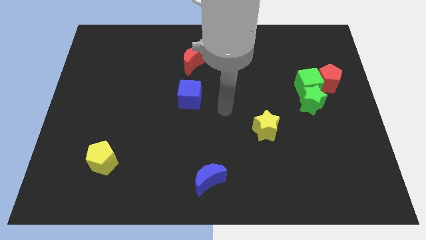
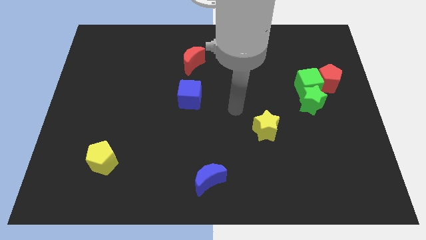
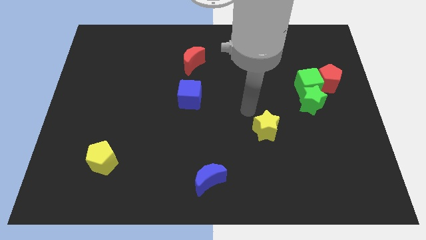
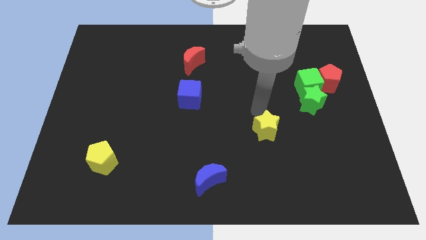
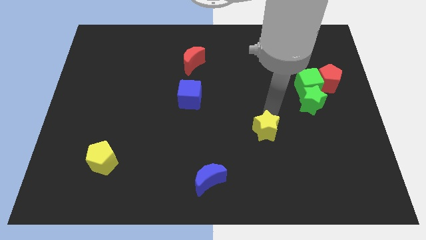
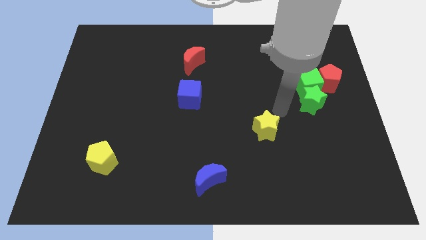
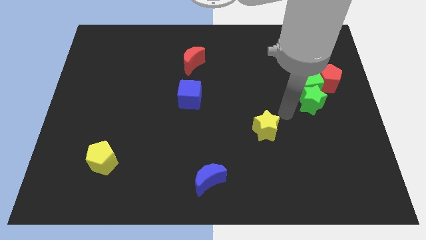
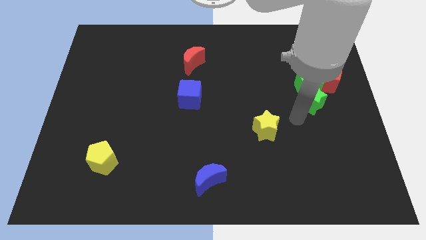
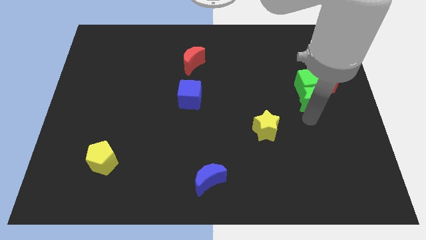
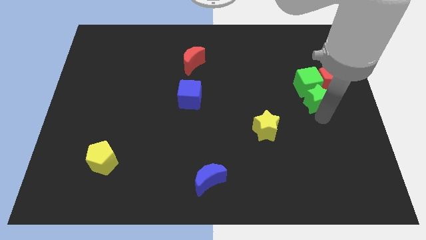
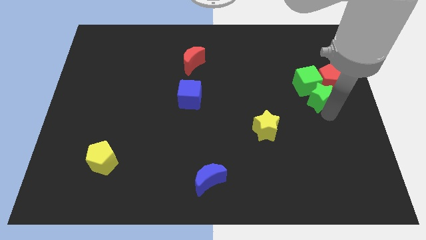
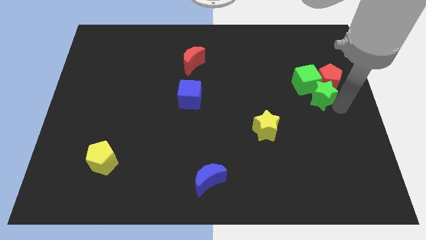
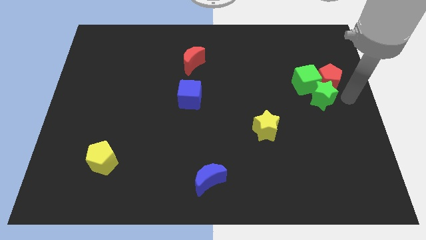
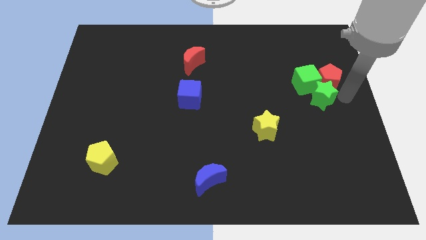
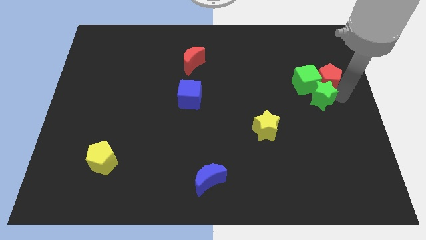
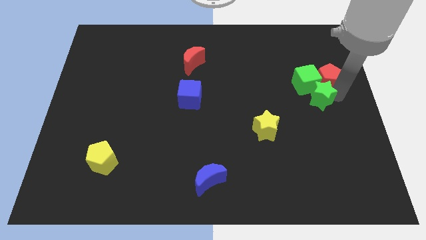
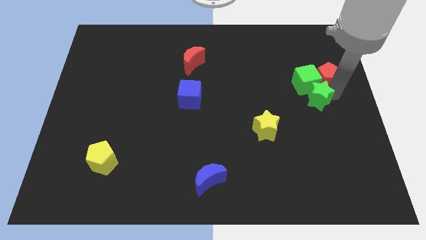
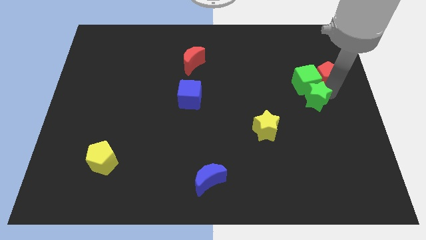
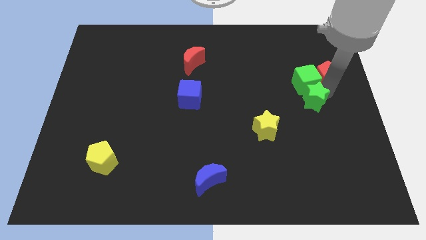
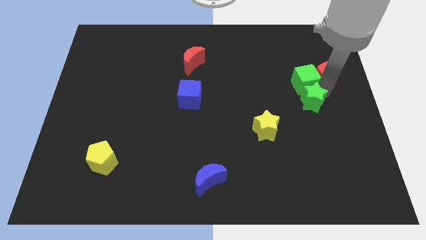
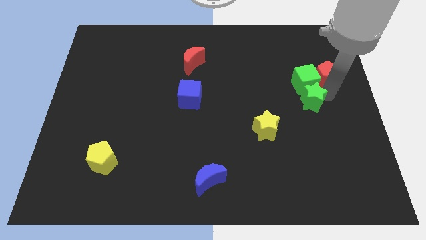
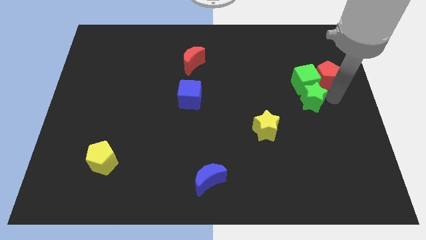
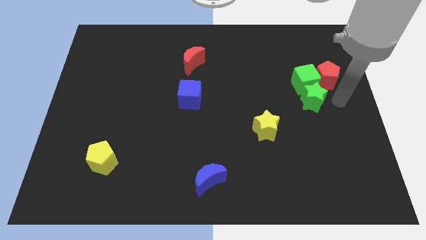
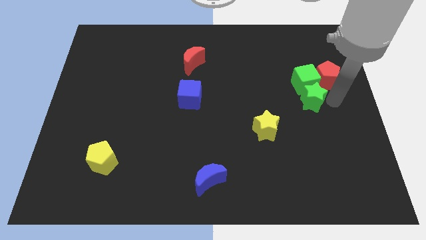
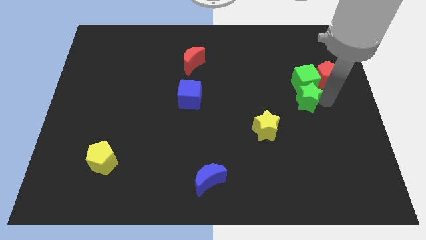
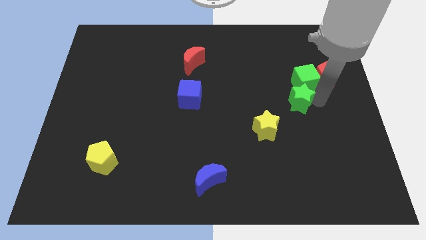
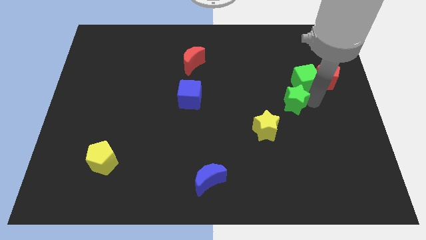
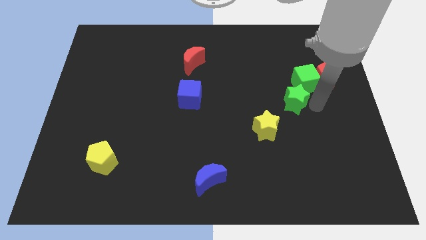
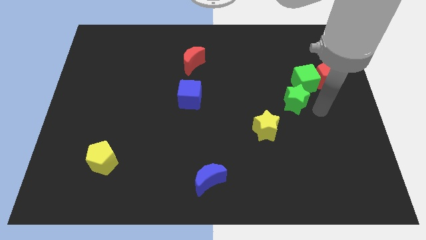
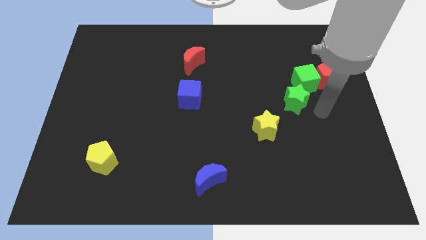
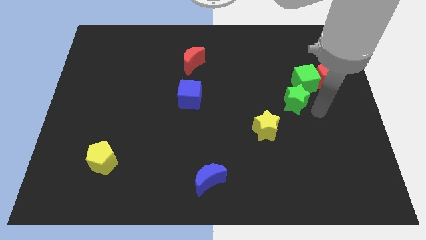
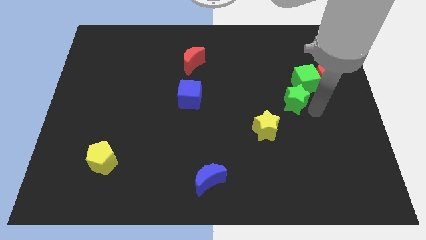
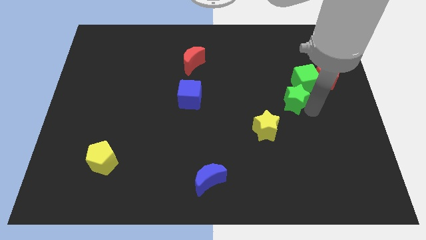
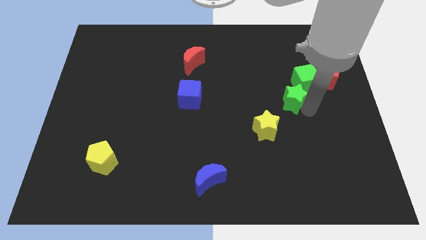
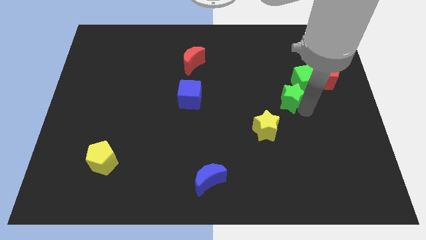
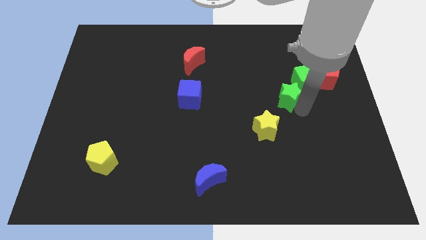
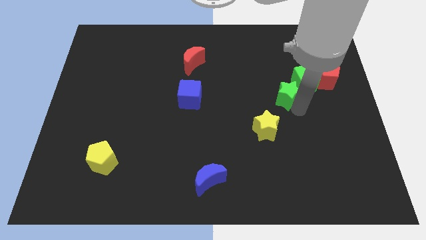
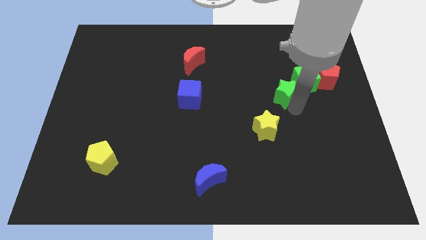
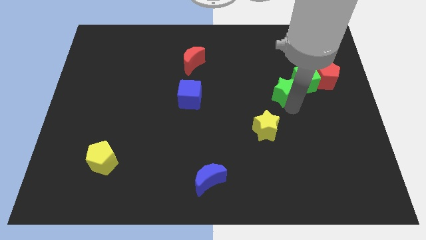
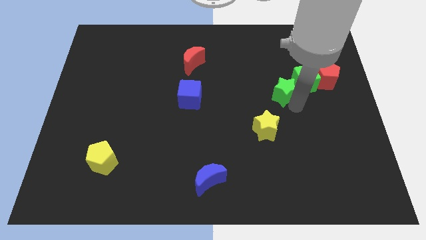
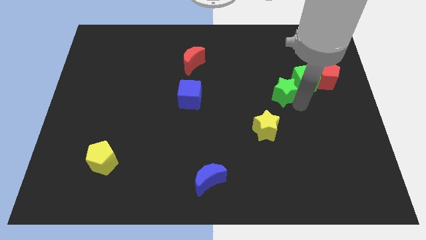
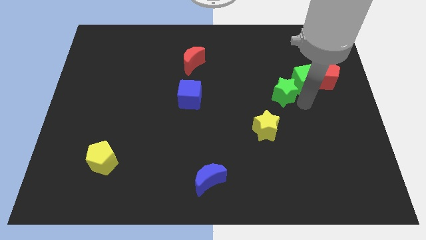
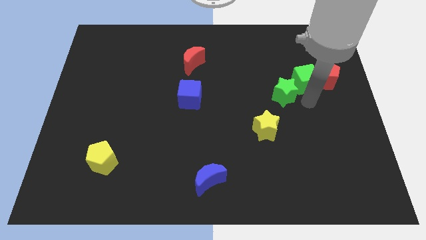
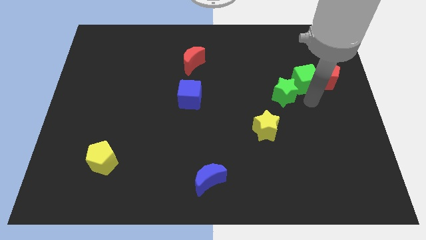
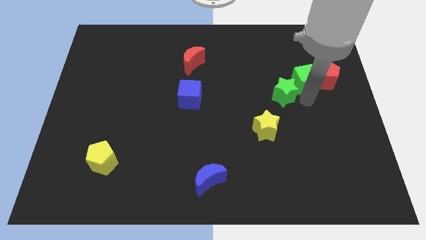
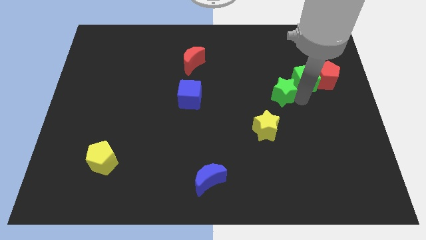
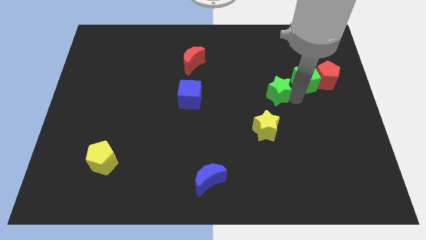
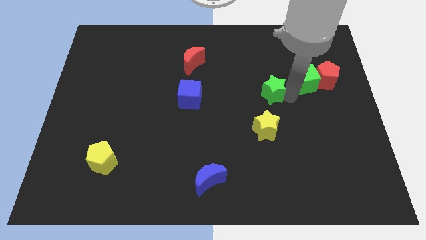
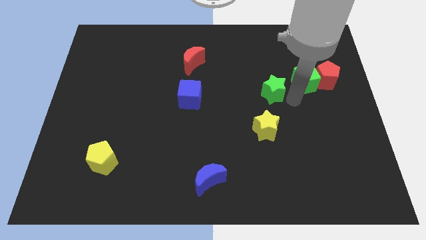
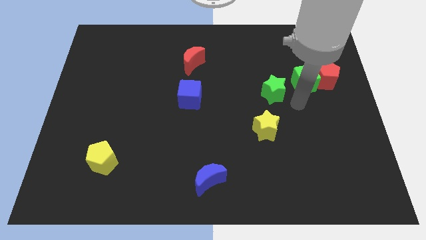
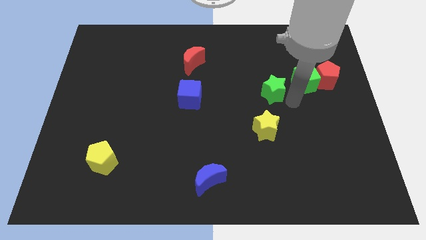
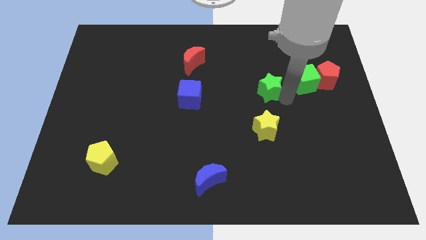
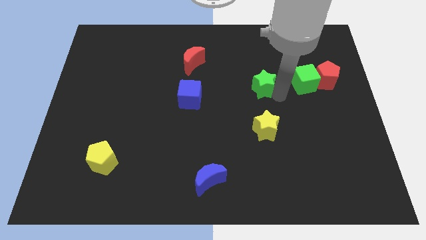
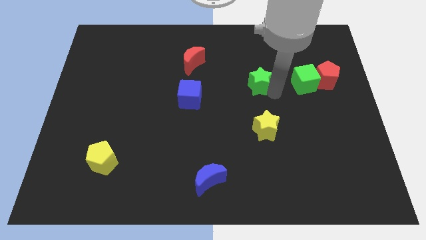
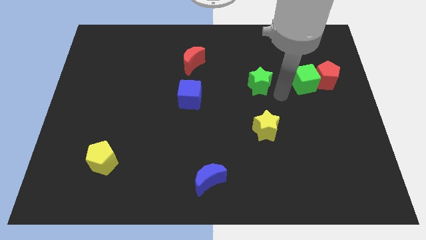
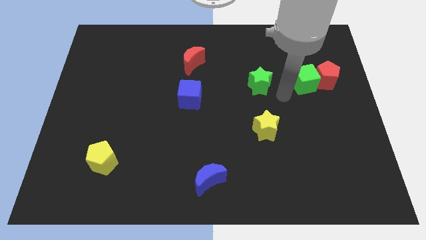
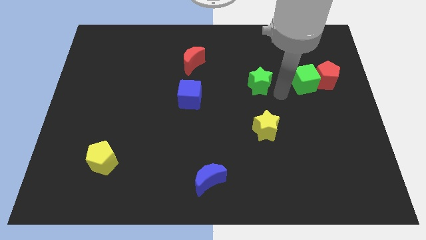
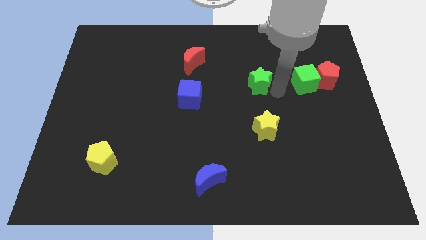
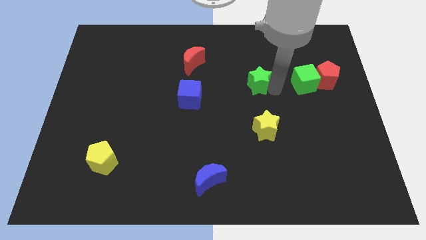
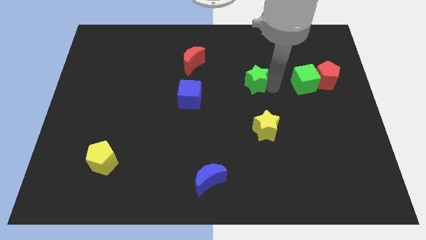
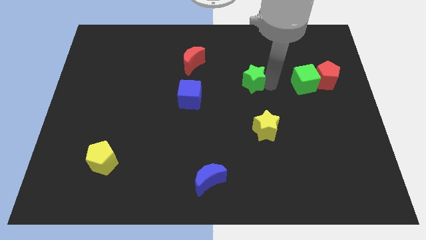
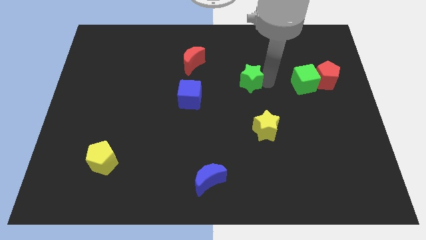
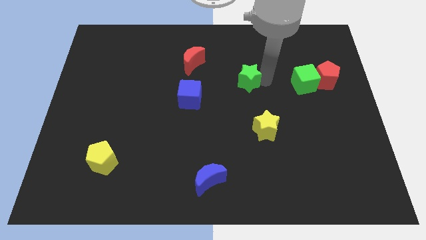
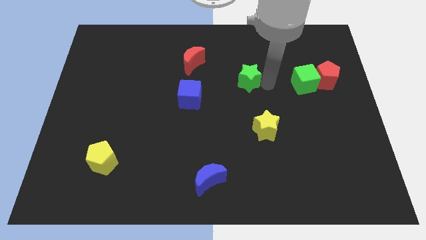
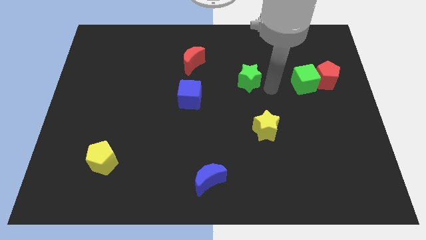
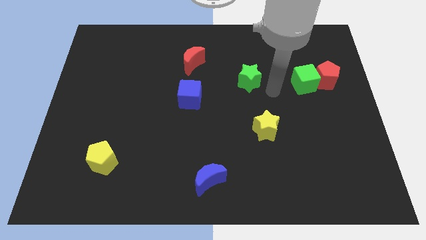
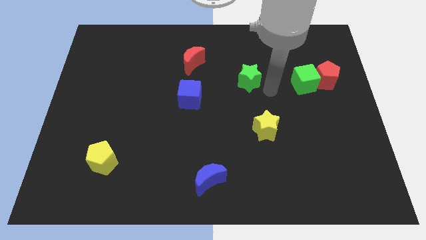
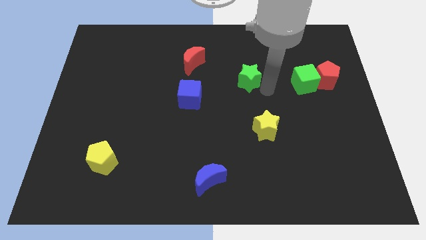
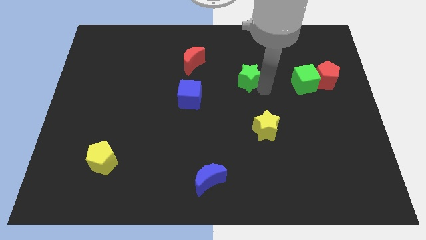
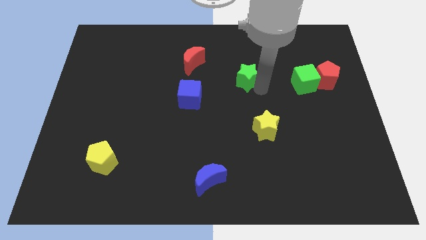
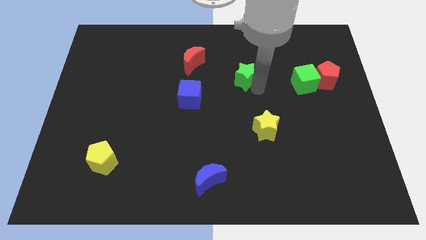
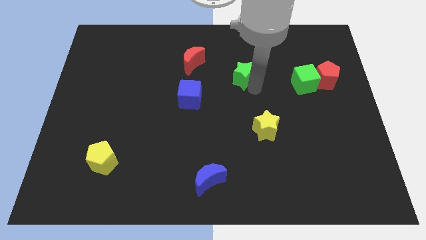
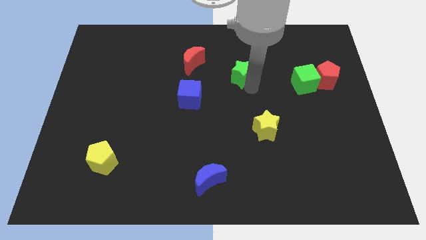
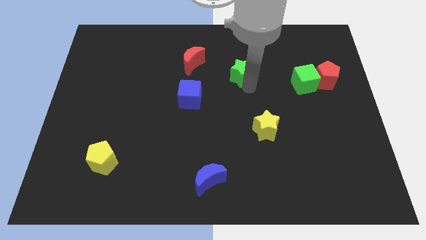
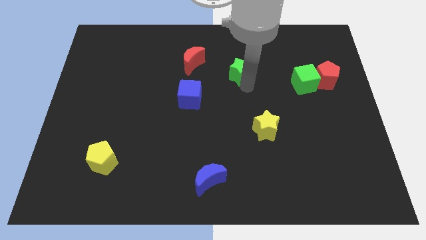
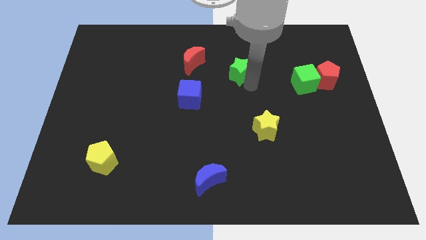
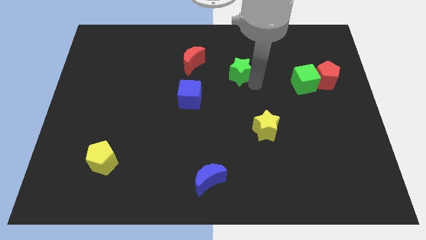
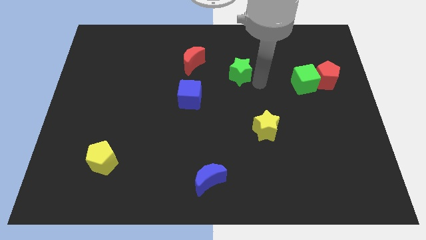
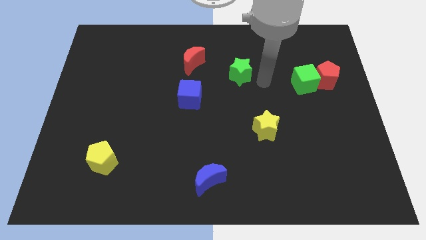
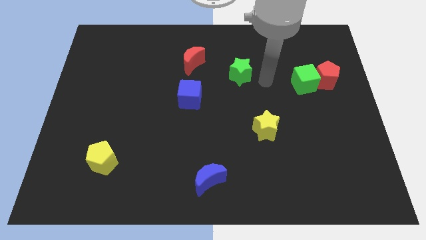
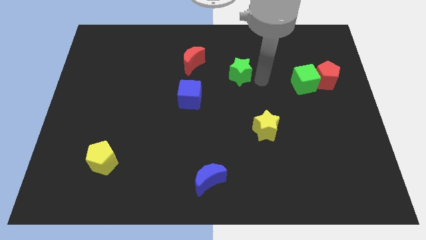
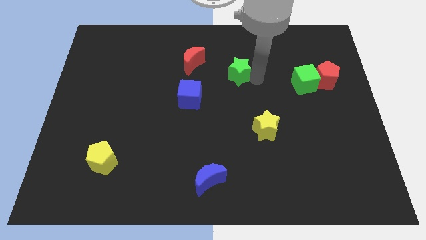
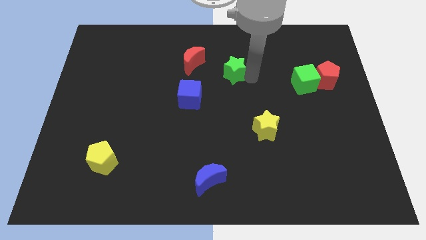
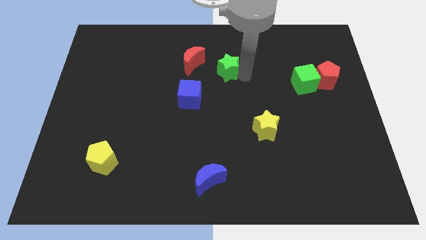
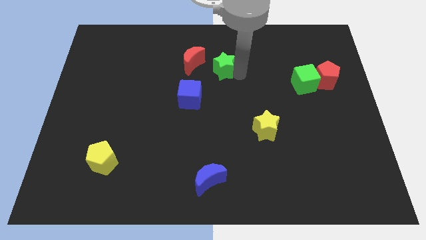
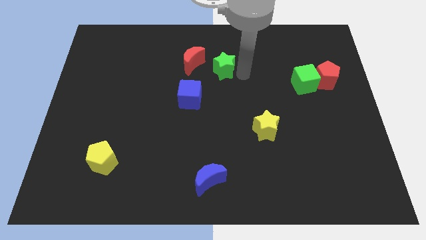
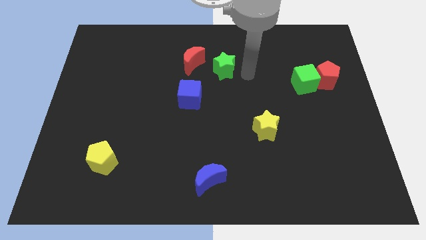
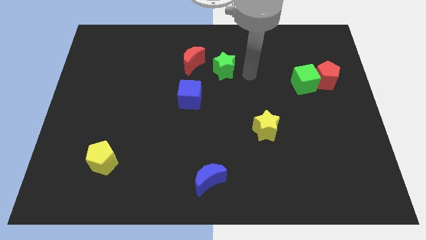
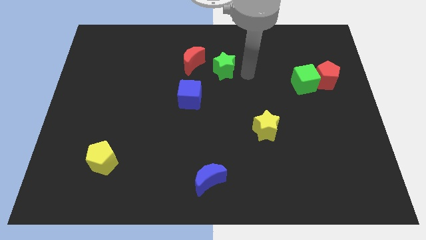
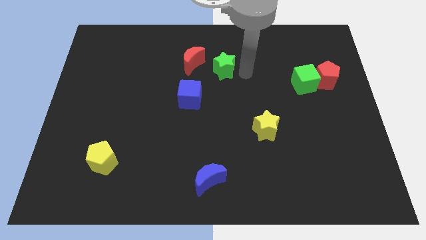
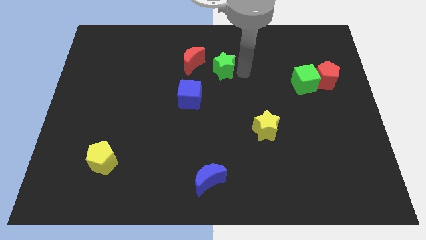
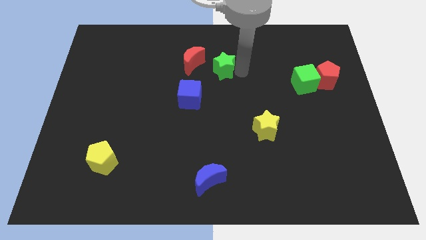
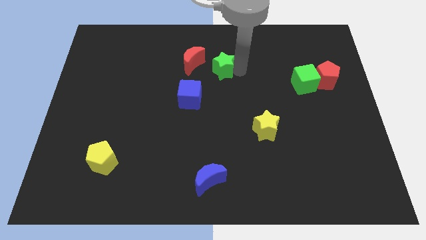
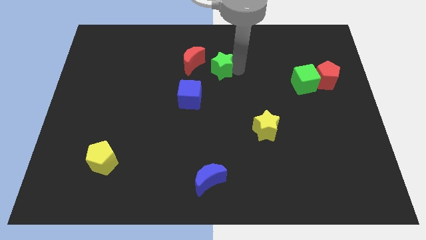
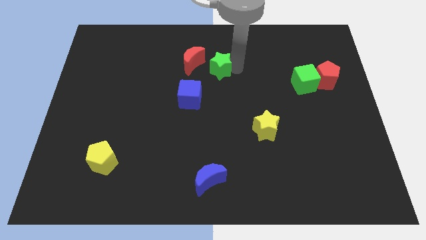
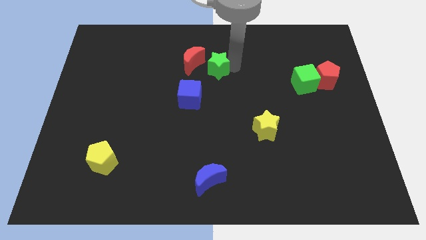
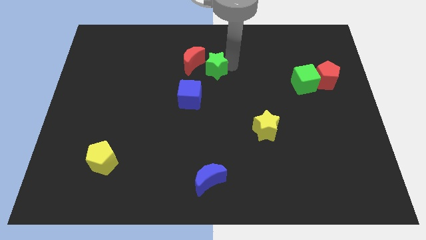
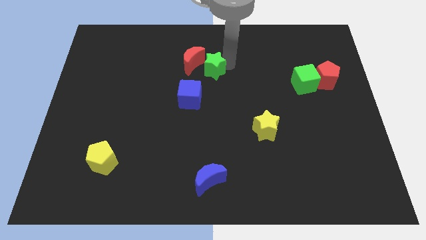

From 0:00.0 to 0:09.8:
put the green star close to the red moon
